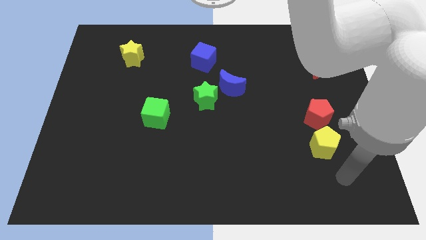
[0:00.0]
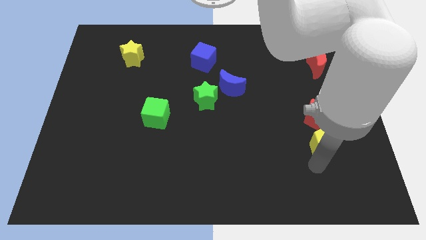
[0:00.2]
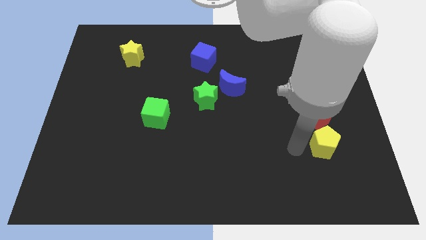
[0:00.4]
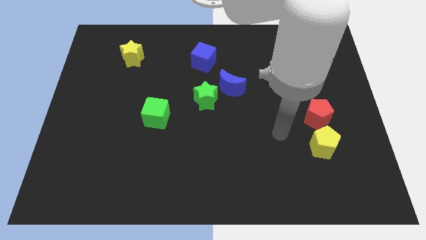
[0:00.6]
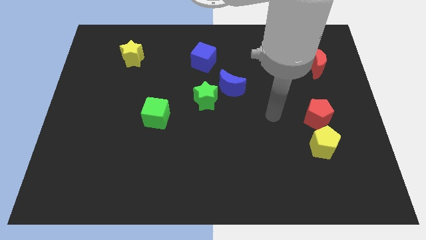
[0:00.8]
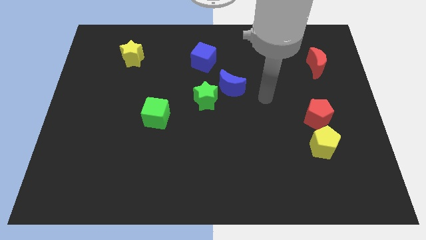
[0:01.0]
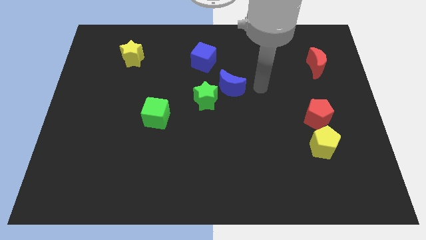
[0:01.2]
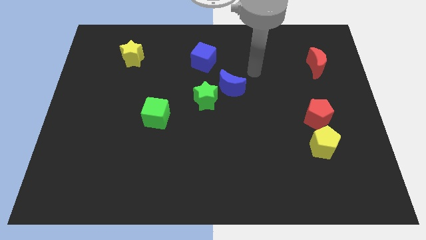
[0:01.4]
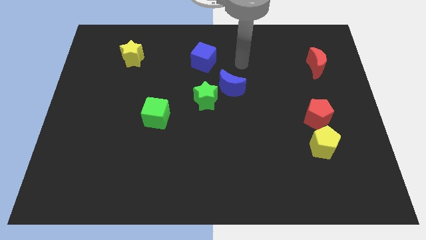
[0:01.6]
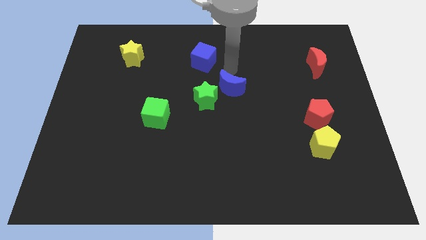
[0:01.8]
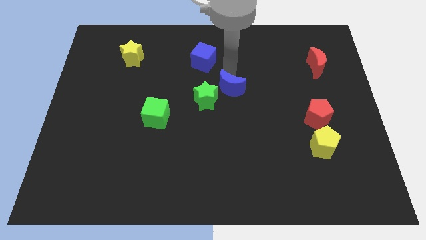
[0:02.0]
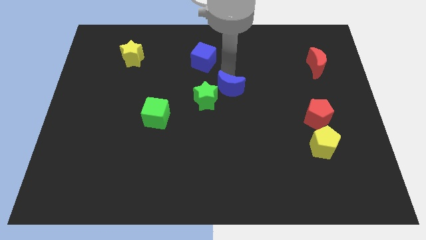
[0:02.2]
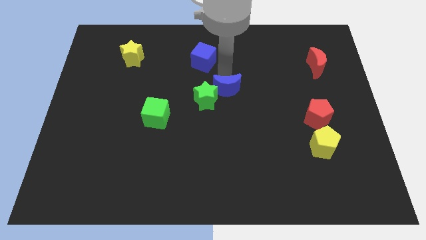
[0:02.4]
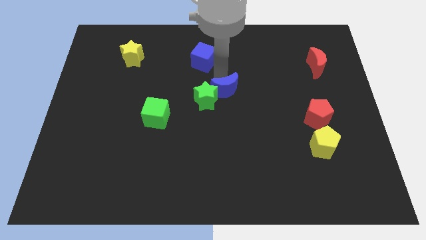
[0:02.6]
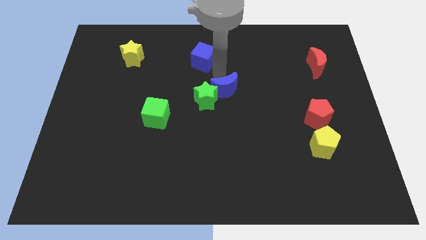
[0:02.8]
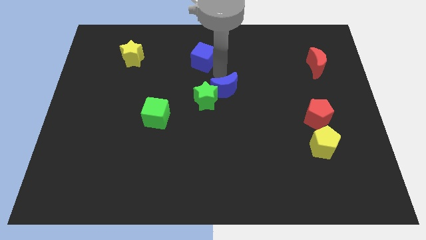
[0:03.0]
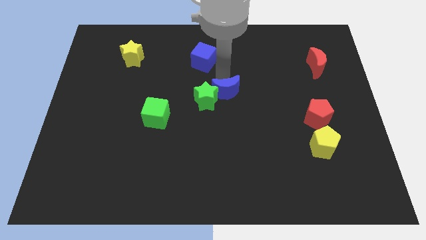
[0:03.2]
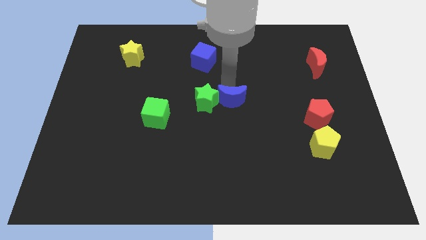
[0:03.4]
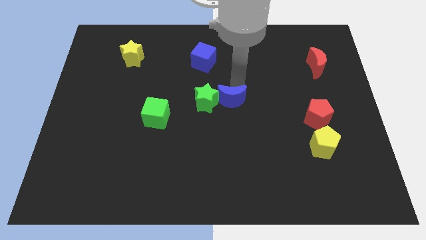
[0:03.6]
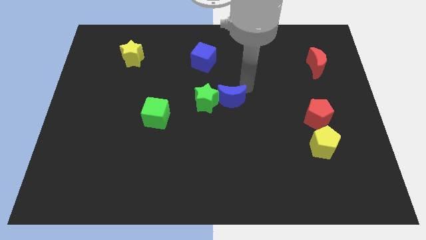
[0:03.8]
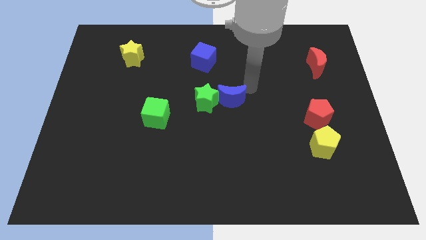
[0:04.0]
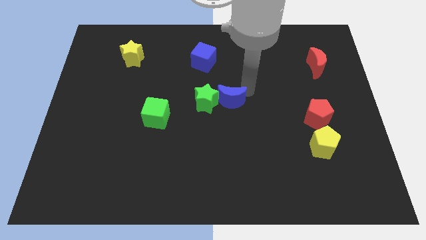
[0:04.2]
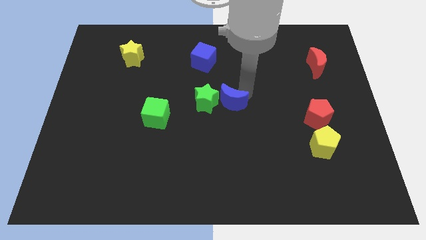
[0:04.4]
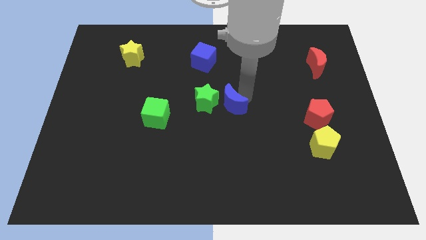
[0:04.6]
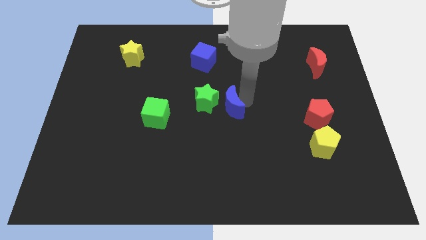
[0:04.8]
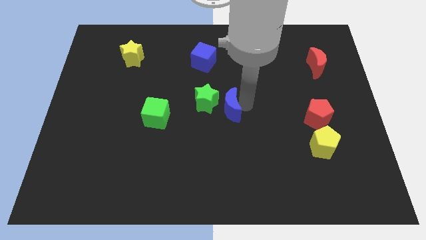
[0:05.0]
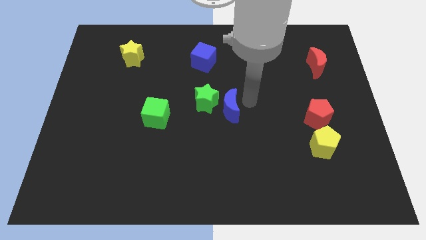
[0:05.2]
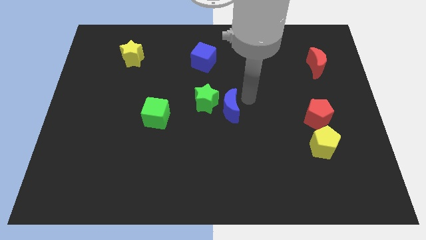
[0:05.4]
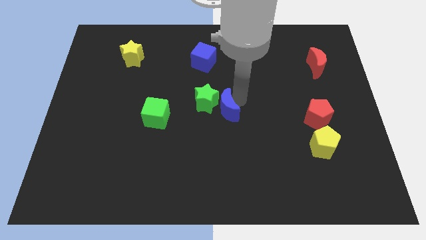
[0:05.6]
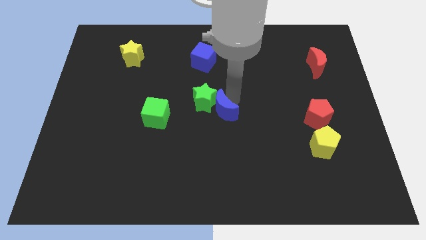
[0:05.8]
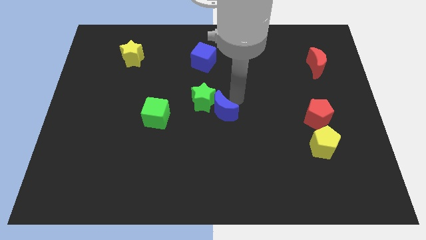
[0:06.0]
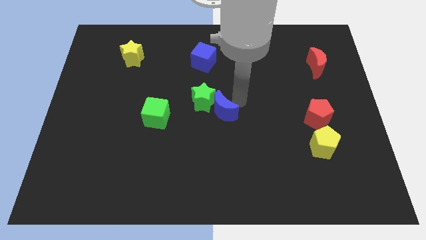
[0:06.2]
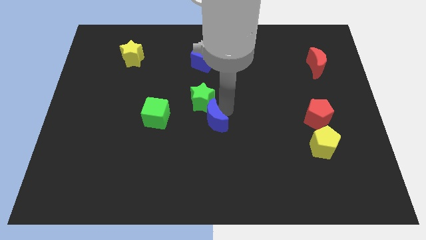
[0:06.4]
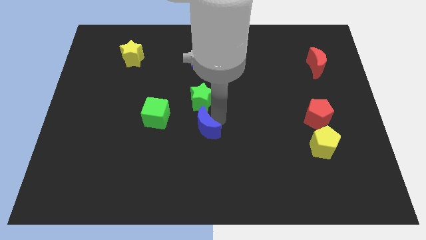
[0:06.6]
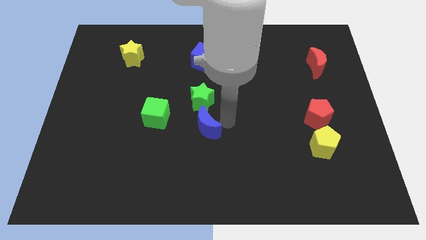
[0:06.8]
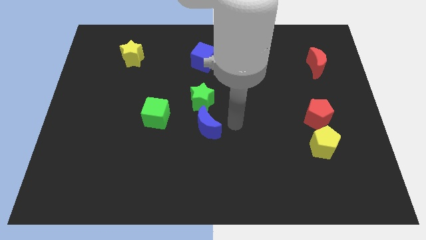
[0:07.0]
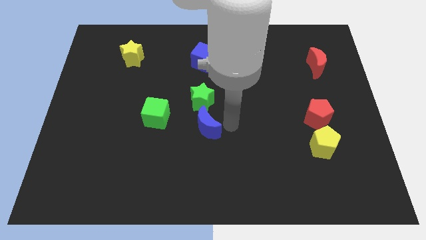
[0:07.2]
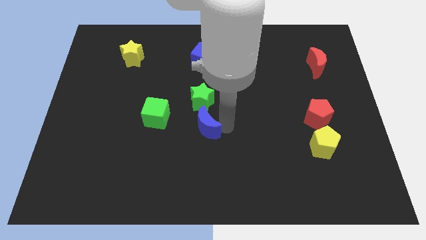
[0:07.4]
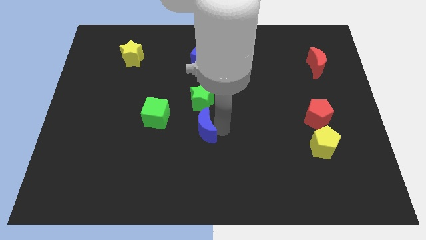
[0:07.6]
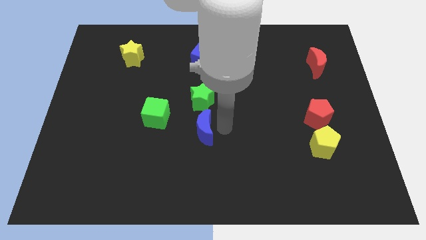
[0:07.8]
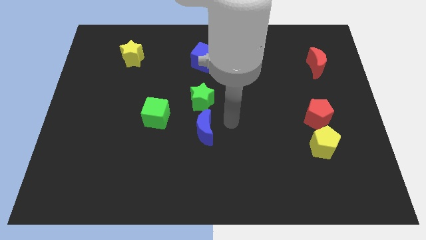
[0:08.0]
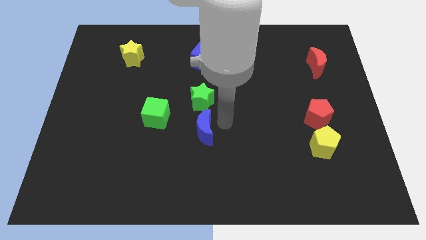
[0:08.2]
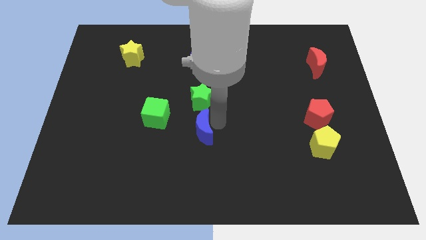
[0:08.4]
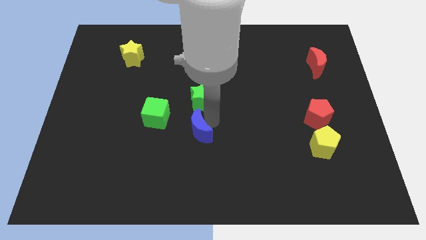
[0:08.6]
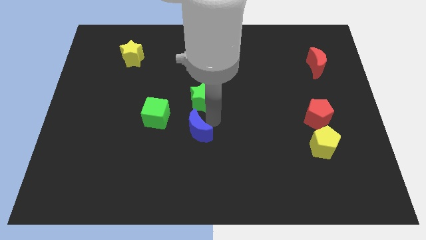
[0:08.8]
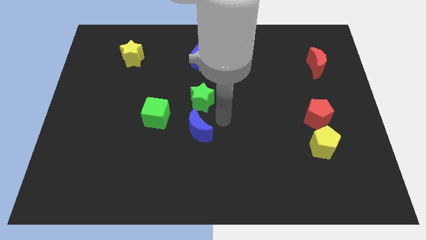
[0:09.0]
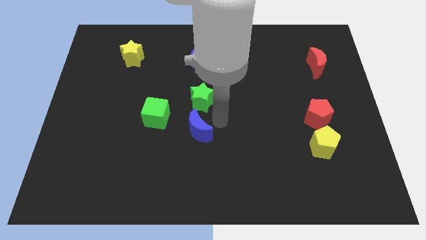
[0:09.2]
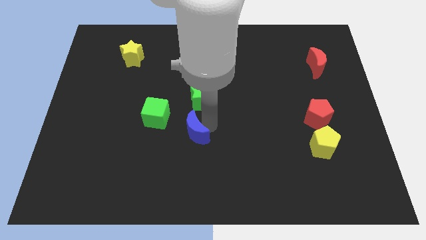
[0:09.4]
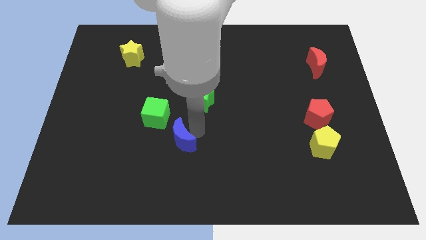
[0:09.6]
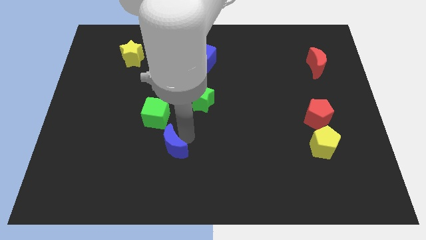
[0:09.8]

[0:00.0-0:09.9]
push the blue moon down and then to the left

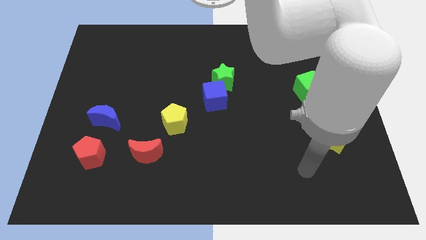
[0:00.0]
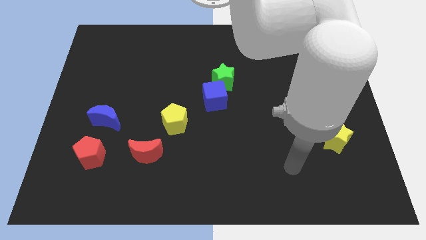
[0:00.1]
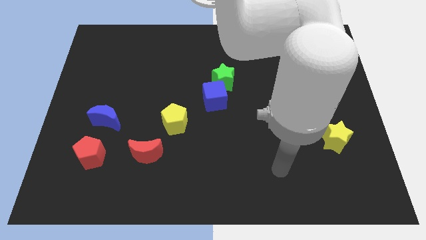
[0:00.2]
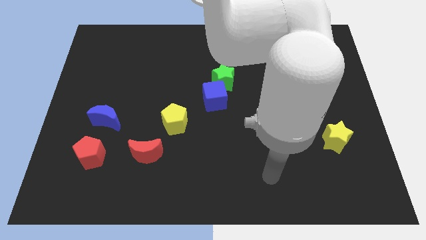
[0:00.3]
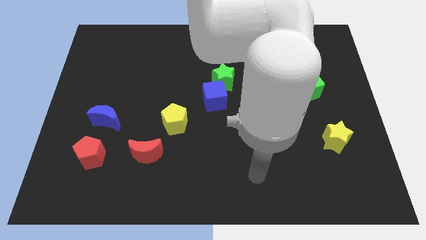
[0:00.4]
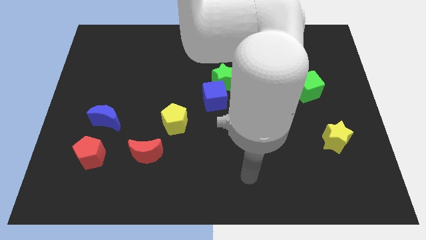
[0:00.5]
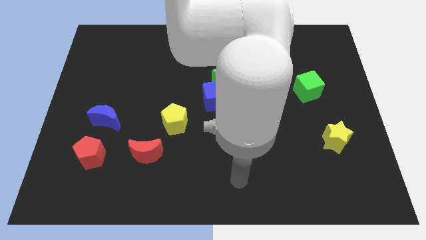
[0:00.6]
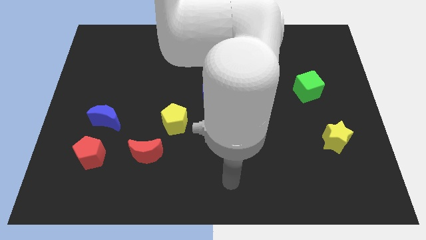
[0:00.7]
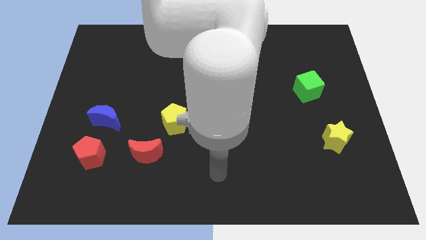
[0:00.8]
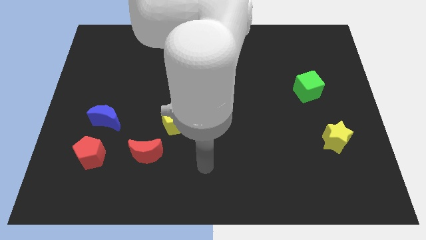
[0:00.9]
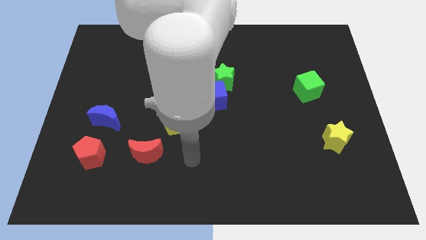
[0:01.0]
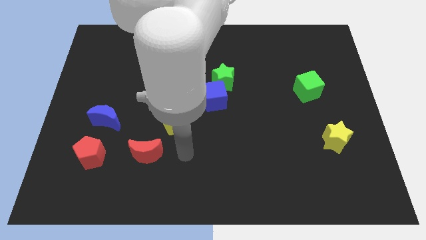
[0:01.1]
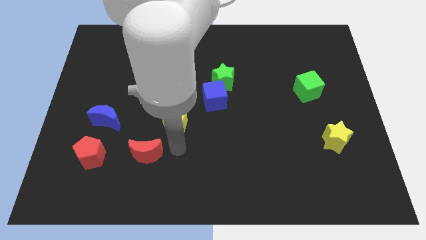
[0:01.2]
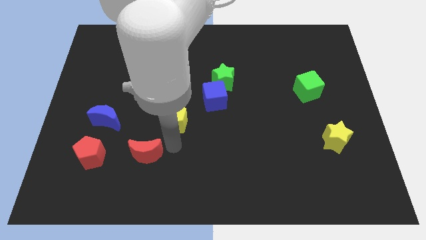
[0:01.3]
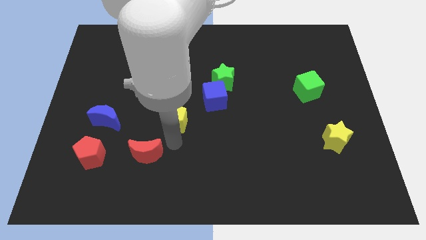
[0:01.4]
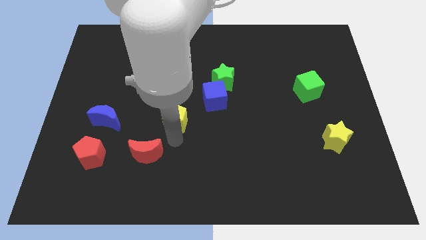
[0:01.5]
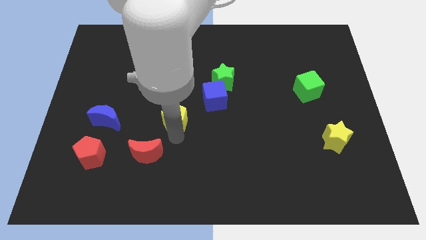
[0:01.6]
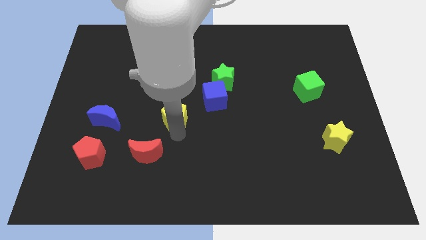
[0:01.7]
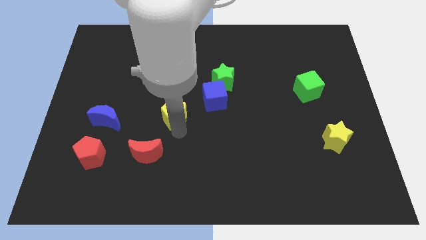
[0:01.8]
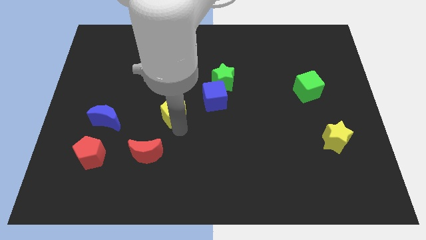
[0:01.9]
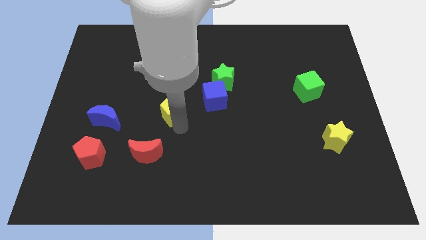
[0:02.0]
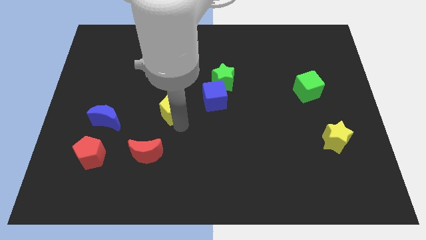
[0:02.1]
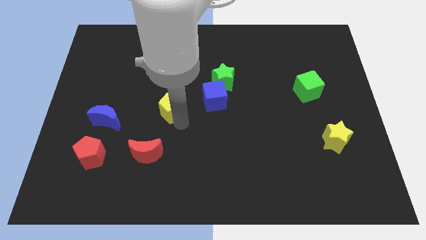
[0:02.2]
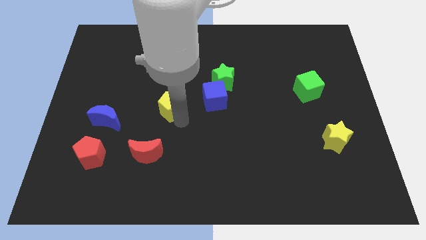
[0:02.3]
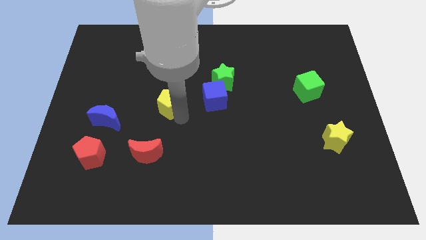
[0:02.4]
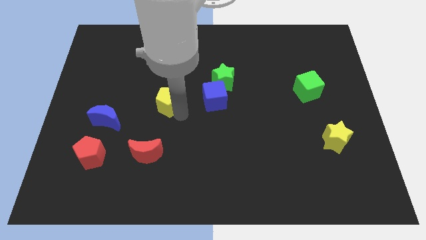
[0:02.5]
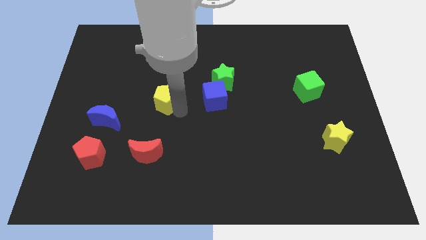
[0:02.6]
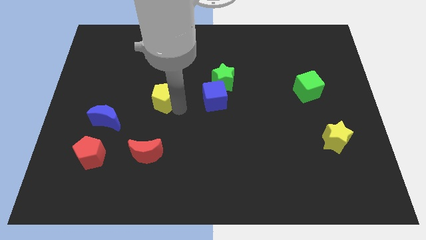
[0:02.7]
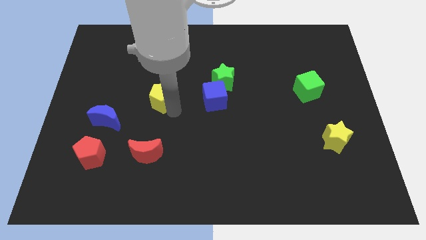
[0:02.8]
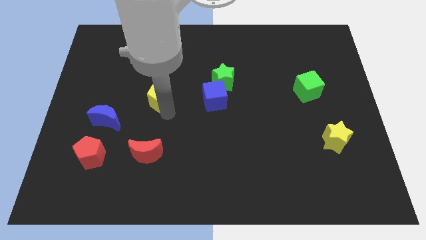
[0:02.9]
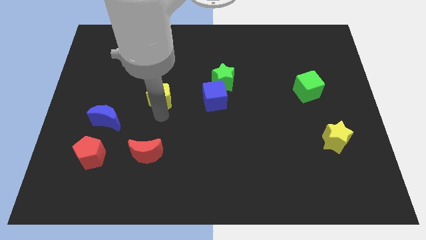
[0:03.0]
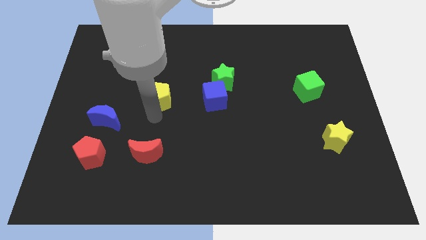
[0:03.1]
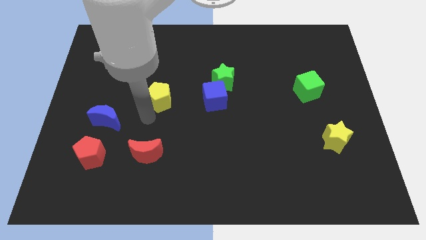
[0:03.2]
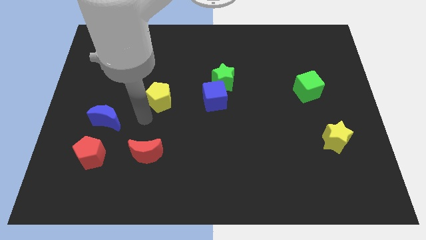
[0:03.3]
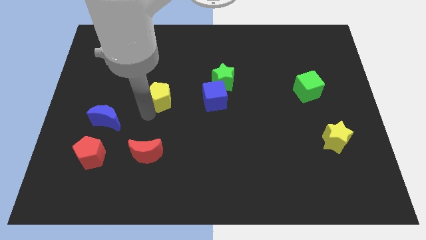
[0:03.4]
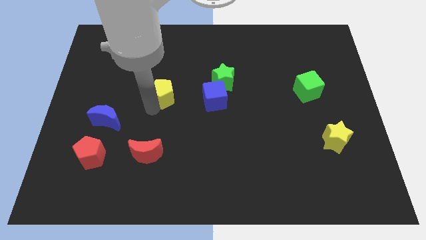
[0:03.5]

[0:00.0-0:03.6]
slightly push the yellow pentagon upwards
